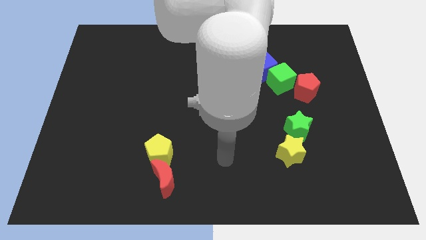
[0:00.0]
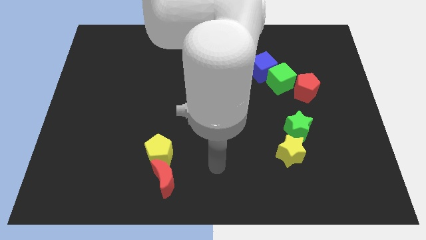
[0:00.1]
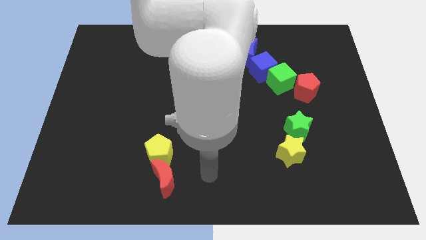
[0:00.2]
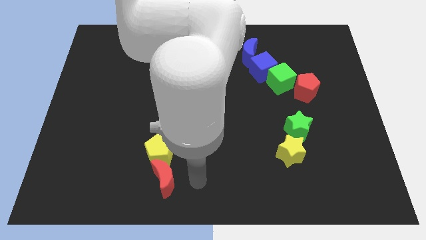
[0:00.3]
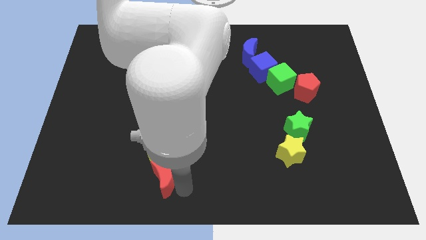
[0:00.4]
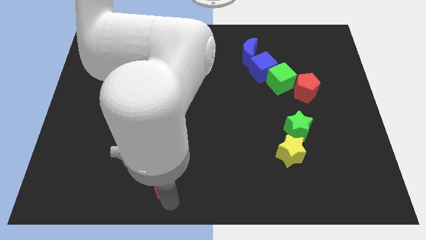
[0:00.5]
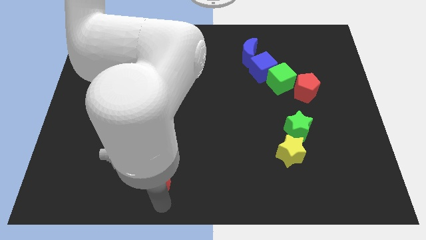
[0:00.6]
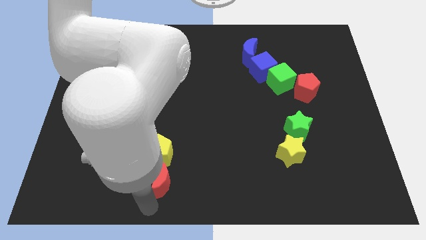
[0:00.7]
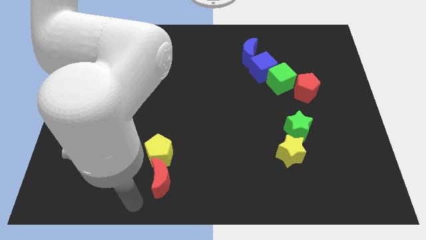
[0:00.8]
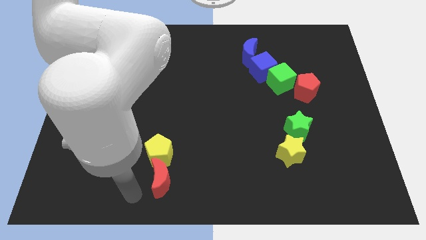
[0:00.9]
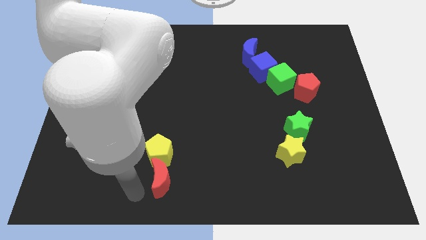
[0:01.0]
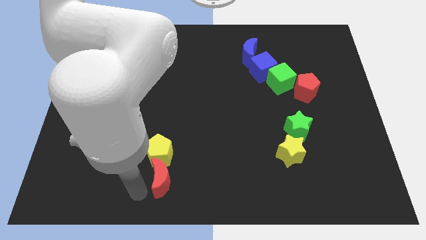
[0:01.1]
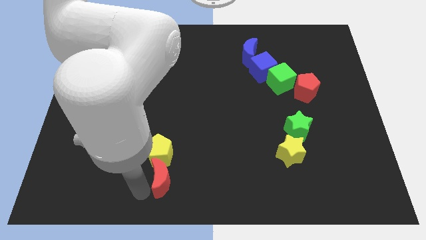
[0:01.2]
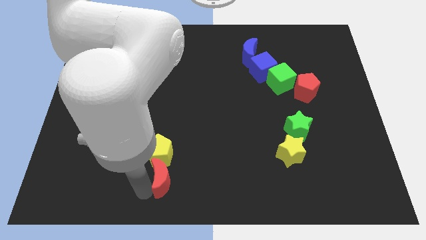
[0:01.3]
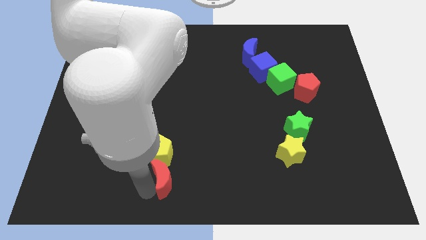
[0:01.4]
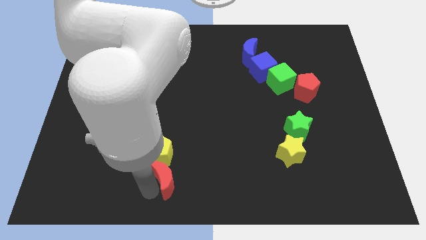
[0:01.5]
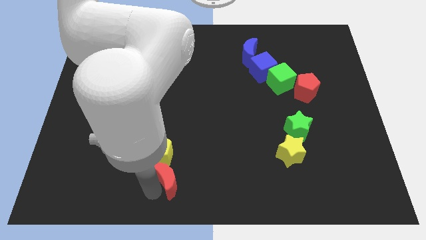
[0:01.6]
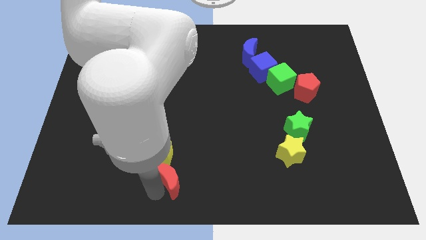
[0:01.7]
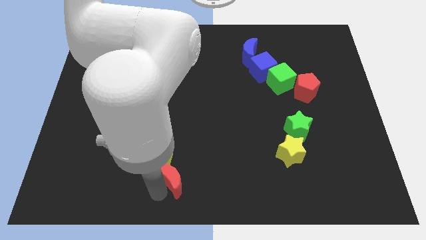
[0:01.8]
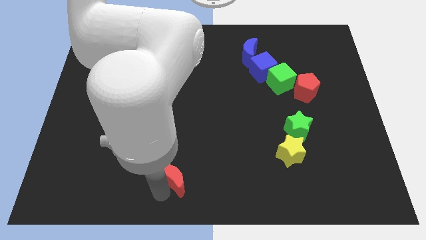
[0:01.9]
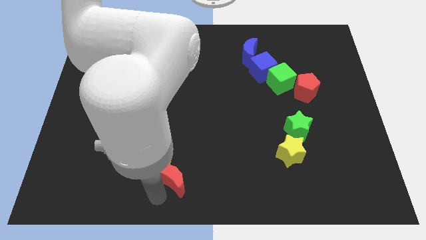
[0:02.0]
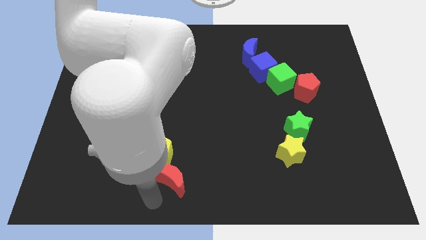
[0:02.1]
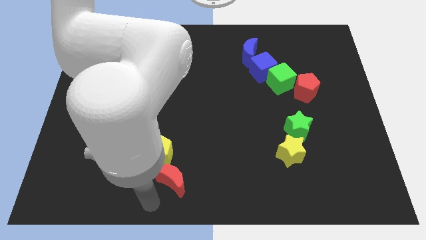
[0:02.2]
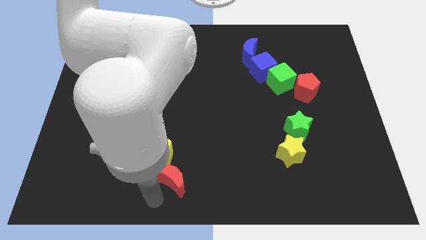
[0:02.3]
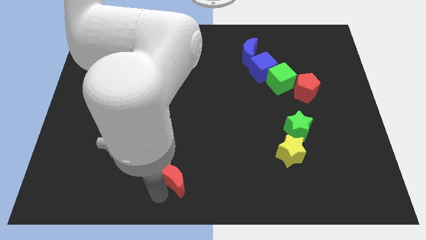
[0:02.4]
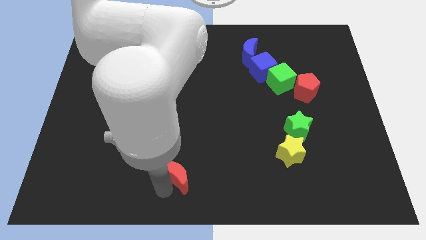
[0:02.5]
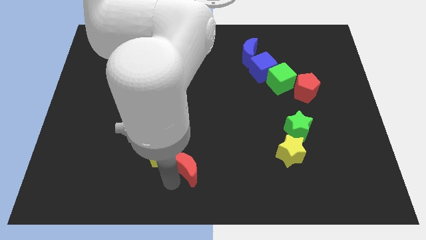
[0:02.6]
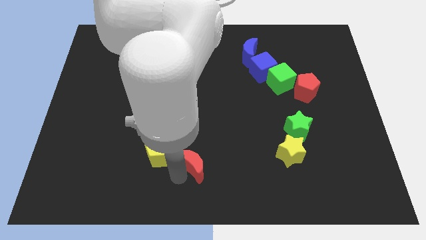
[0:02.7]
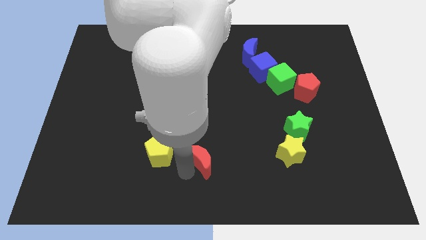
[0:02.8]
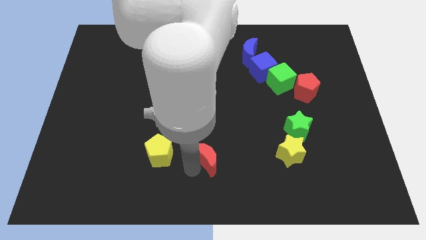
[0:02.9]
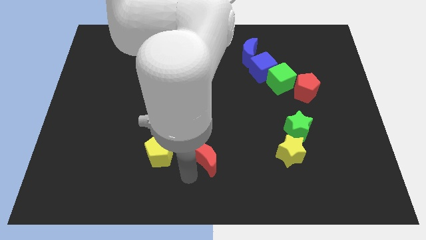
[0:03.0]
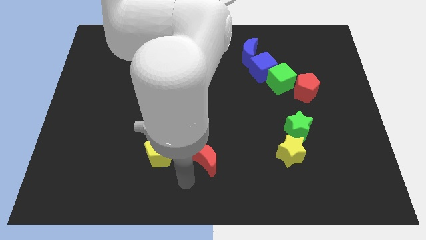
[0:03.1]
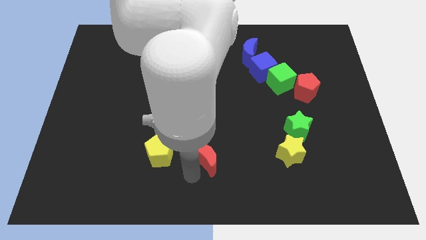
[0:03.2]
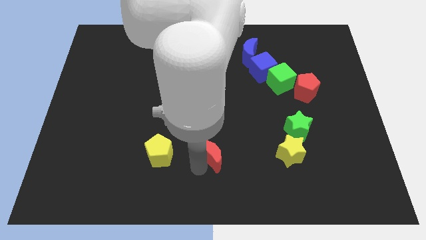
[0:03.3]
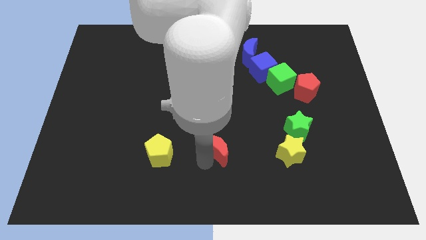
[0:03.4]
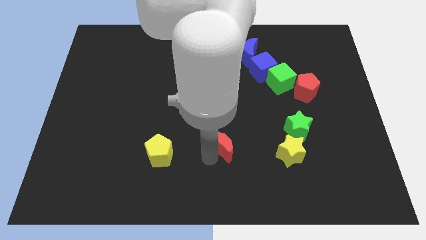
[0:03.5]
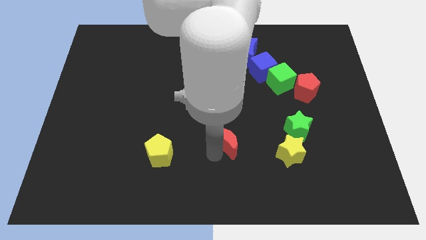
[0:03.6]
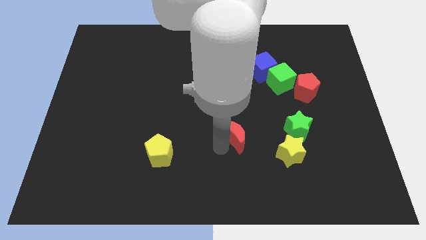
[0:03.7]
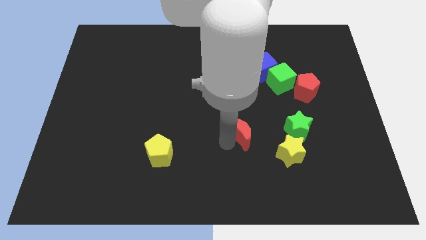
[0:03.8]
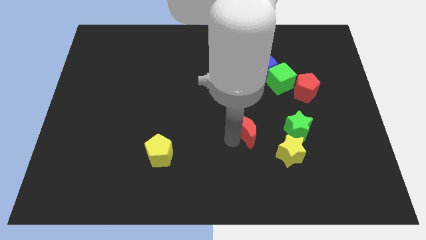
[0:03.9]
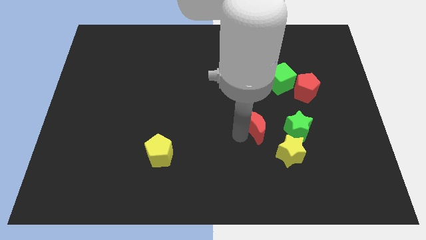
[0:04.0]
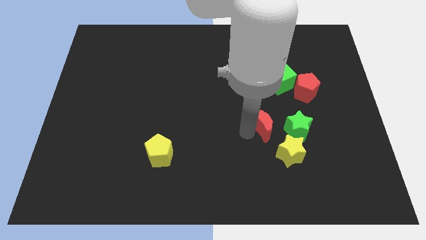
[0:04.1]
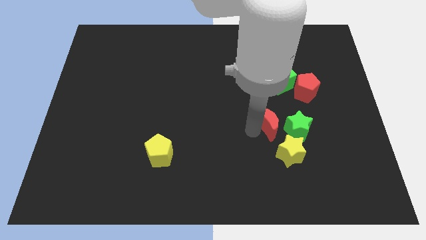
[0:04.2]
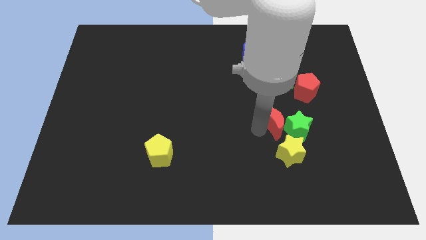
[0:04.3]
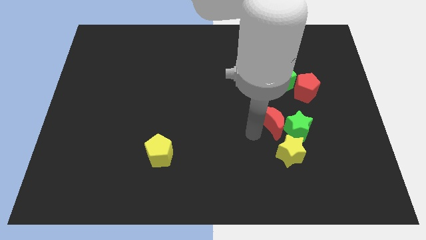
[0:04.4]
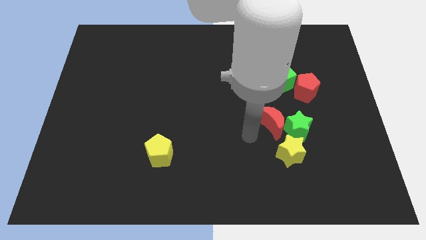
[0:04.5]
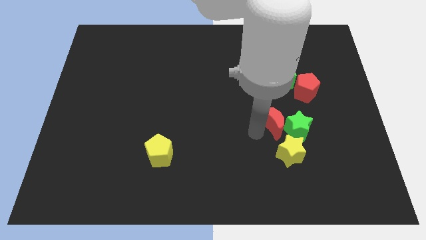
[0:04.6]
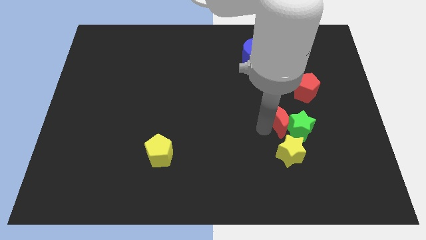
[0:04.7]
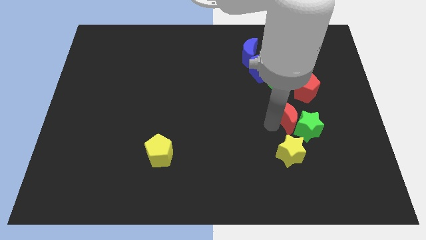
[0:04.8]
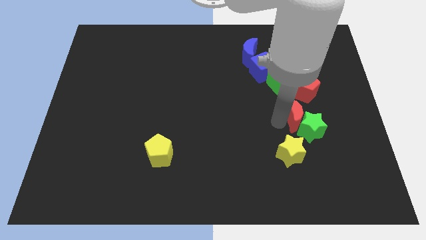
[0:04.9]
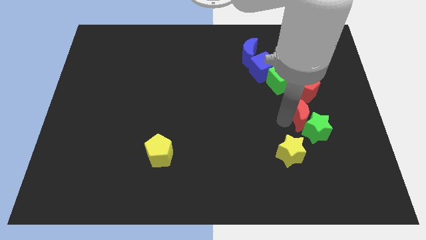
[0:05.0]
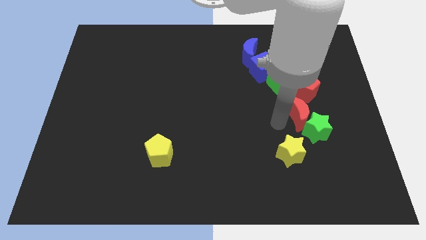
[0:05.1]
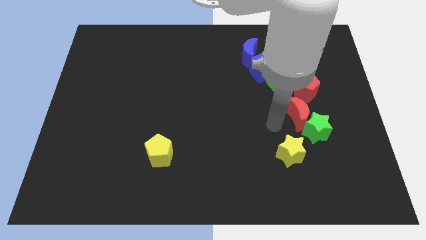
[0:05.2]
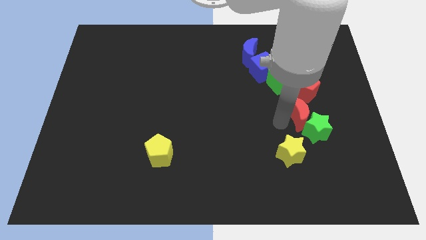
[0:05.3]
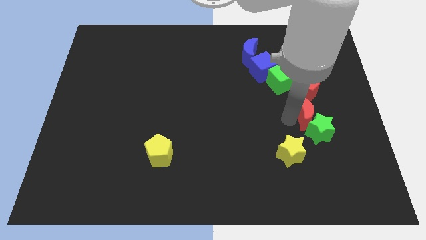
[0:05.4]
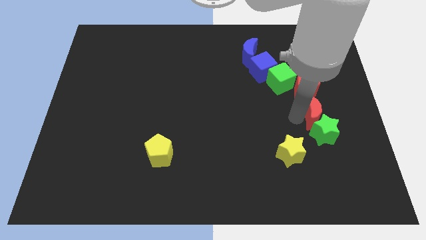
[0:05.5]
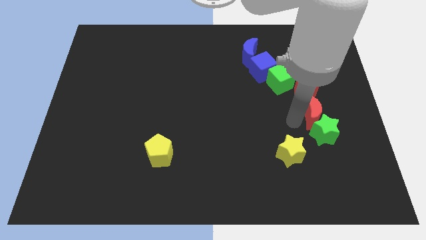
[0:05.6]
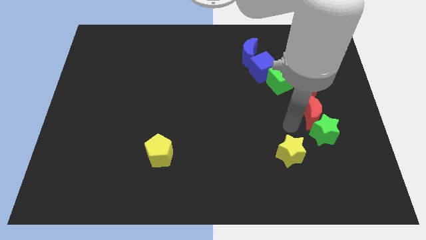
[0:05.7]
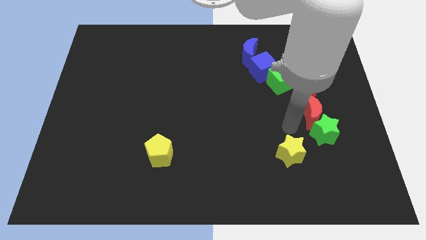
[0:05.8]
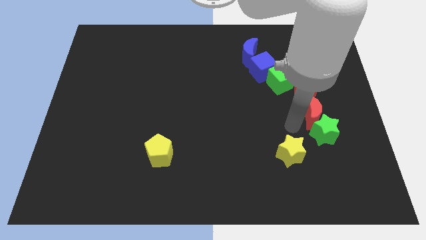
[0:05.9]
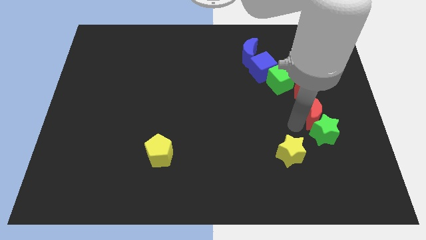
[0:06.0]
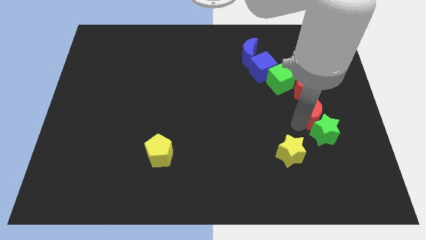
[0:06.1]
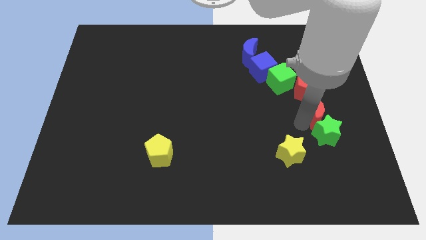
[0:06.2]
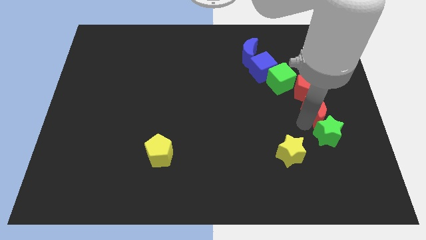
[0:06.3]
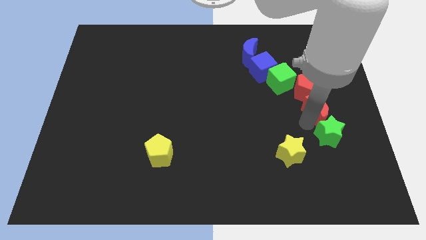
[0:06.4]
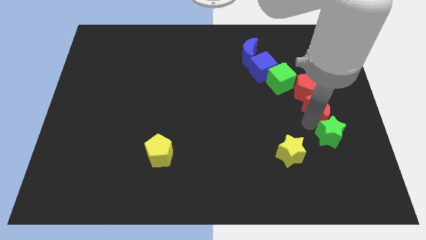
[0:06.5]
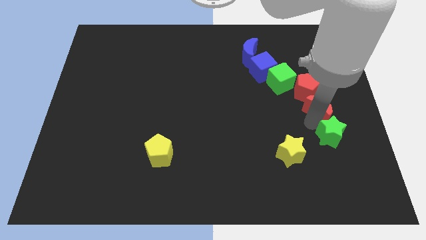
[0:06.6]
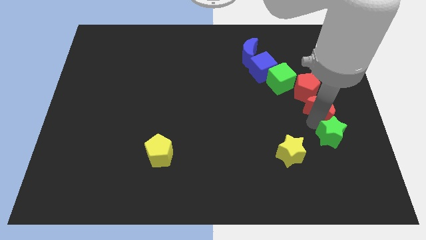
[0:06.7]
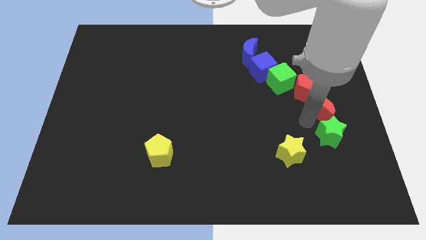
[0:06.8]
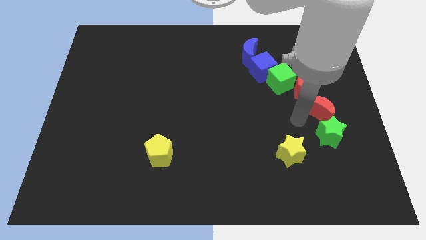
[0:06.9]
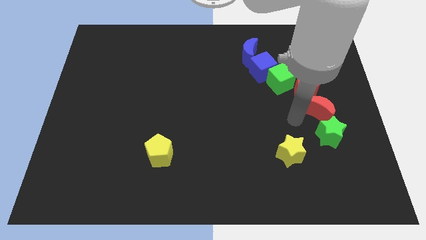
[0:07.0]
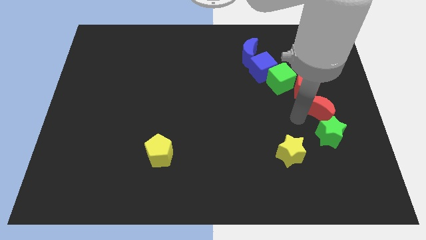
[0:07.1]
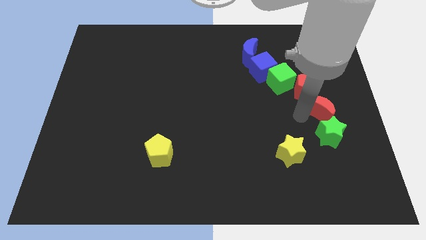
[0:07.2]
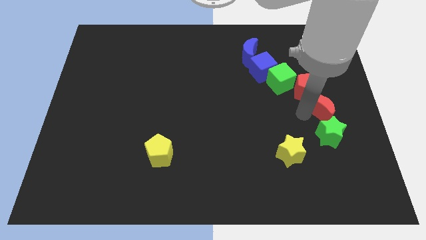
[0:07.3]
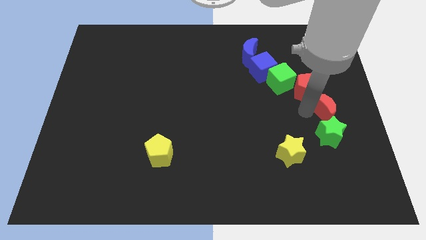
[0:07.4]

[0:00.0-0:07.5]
move the red moon to the center right
